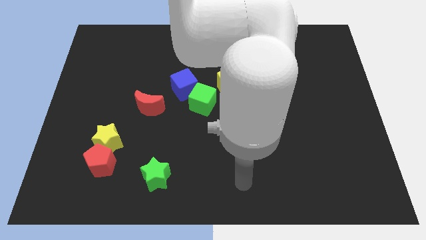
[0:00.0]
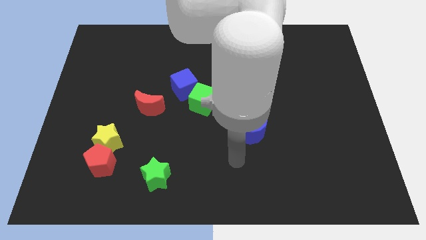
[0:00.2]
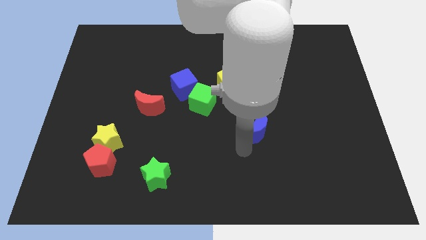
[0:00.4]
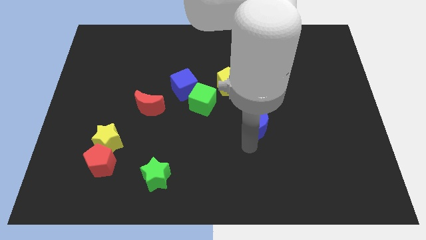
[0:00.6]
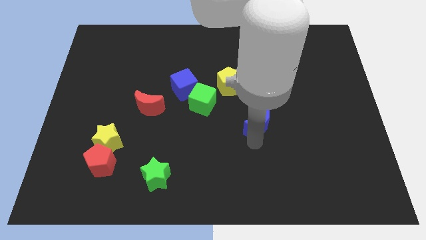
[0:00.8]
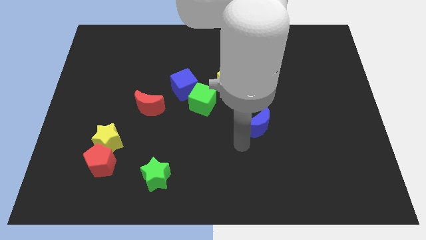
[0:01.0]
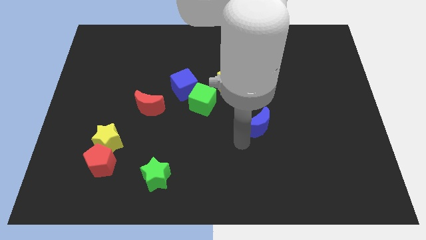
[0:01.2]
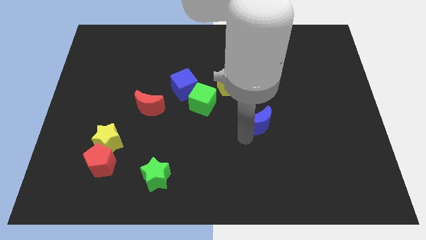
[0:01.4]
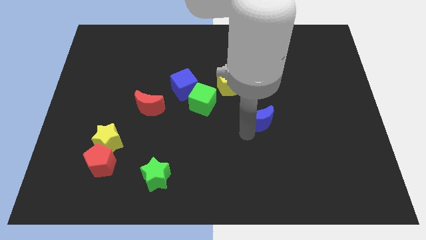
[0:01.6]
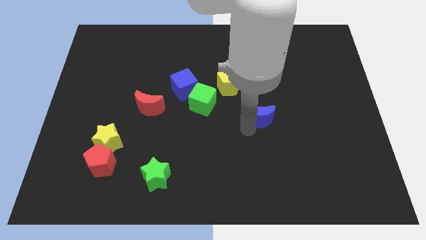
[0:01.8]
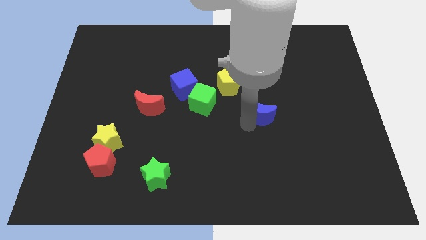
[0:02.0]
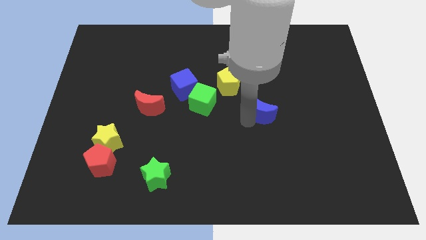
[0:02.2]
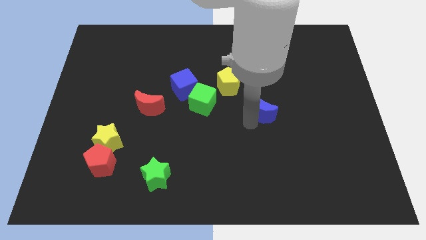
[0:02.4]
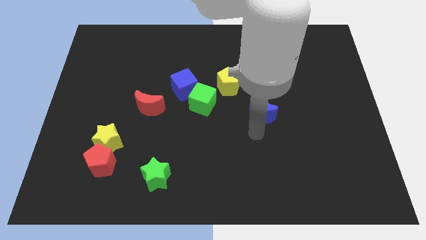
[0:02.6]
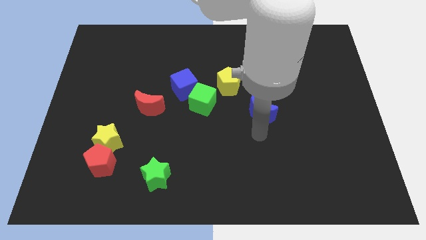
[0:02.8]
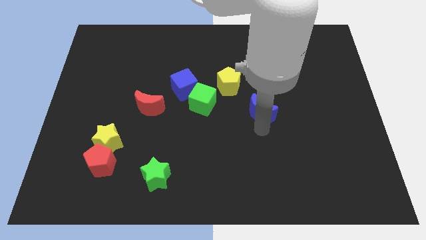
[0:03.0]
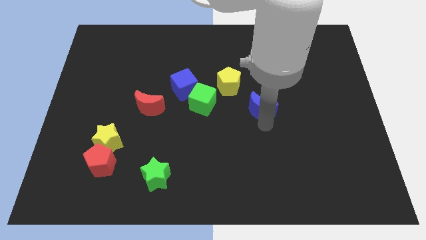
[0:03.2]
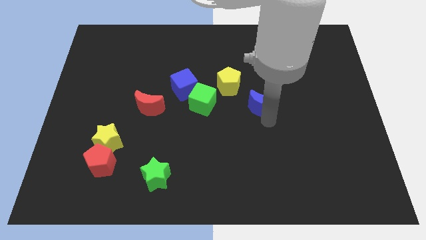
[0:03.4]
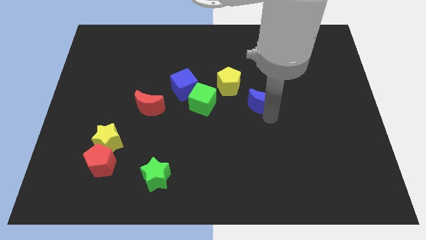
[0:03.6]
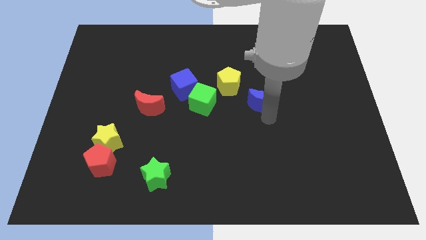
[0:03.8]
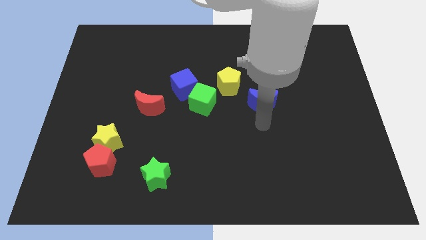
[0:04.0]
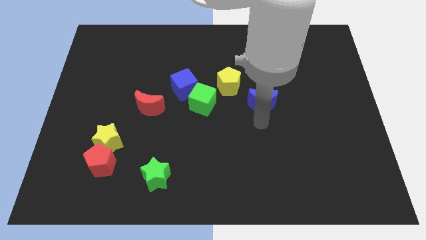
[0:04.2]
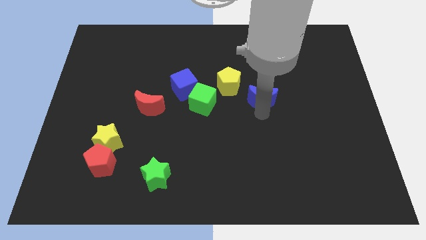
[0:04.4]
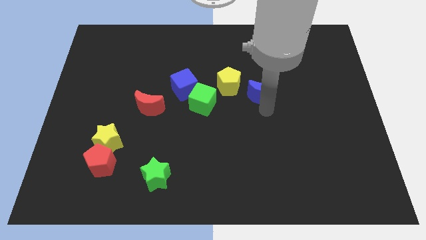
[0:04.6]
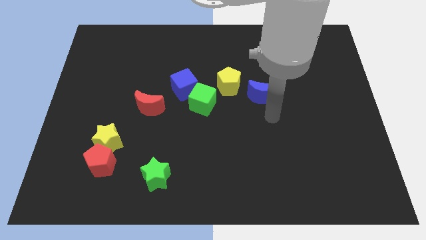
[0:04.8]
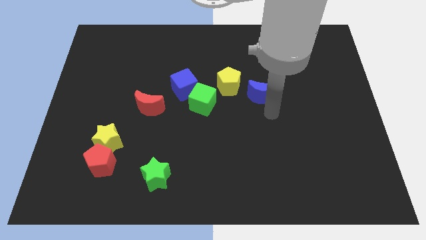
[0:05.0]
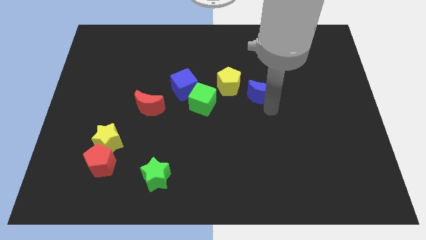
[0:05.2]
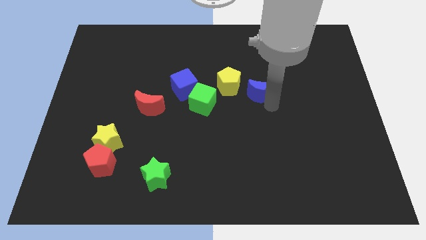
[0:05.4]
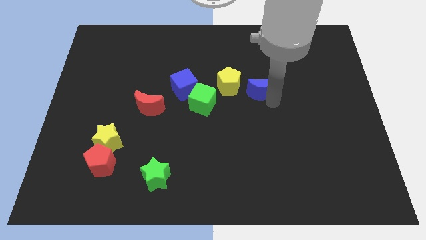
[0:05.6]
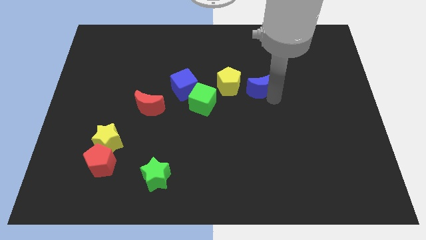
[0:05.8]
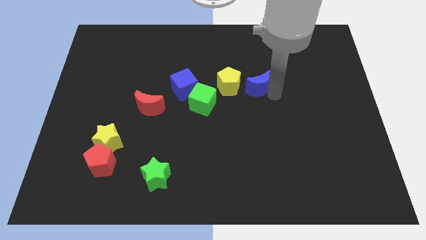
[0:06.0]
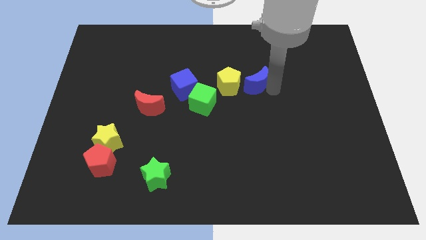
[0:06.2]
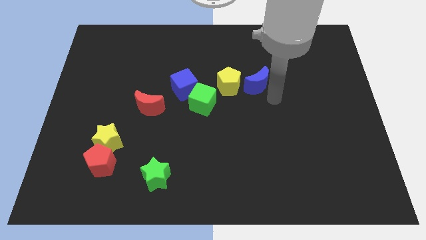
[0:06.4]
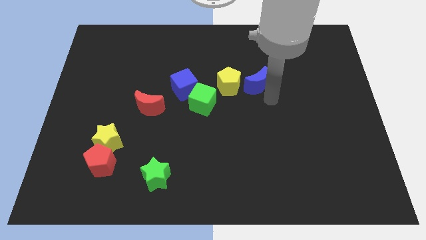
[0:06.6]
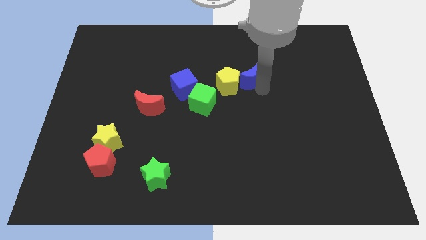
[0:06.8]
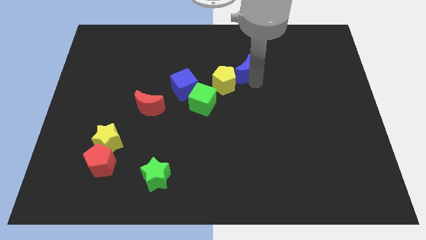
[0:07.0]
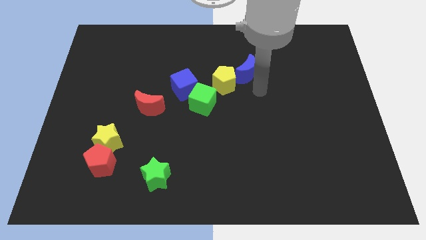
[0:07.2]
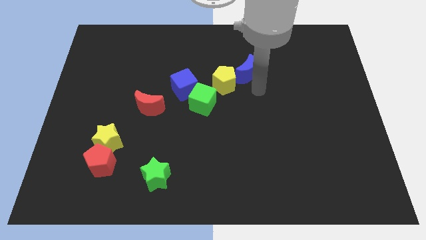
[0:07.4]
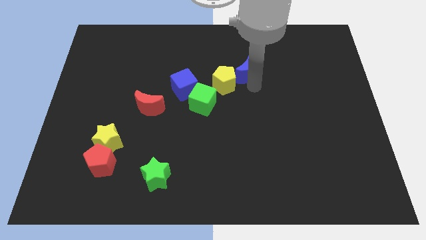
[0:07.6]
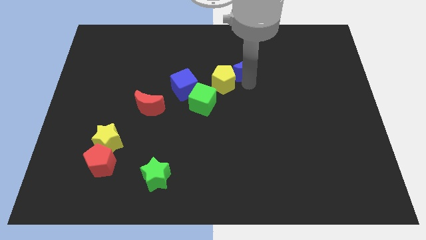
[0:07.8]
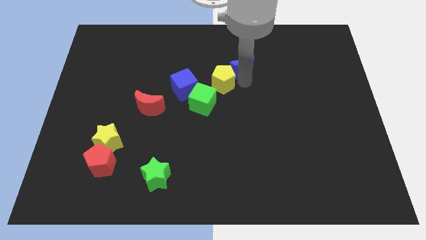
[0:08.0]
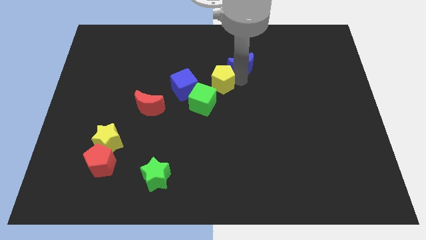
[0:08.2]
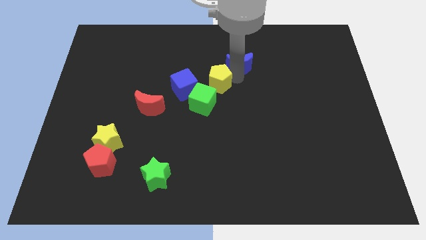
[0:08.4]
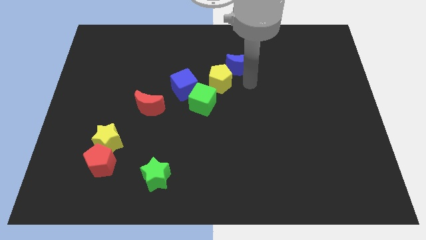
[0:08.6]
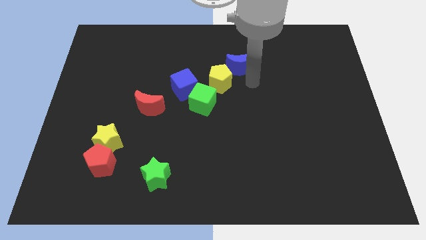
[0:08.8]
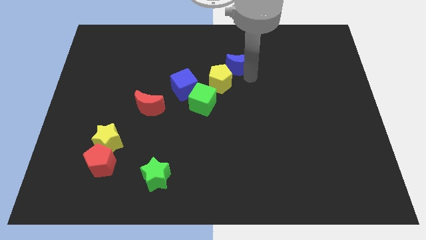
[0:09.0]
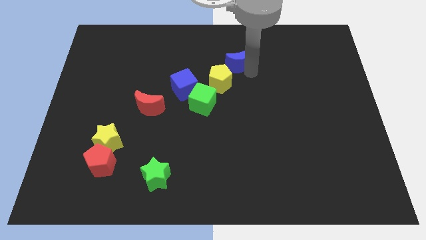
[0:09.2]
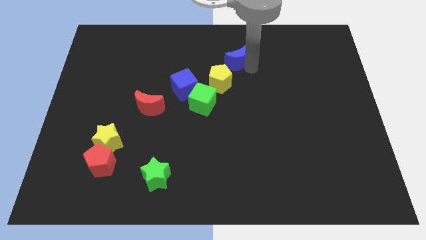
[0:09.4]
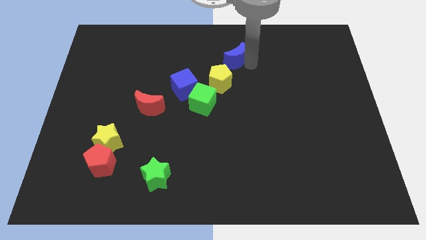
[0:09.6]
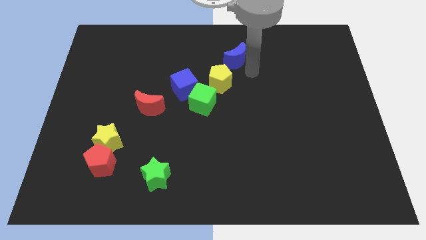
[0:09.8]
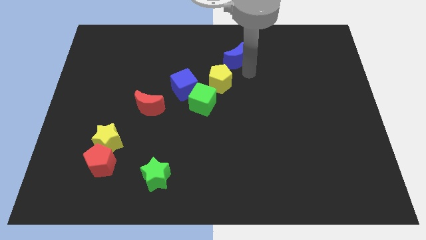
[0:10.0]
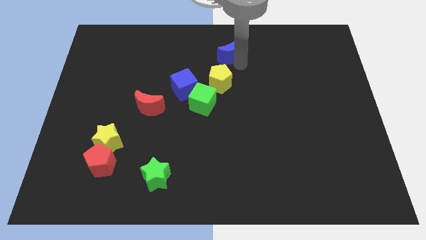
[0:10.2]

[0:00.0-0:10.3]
push the blue moon to the top

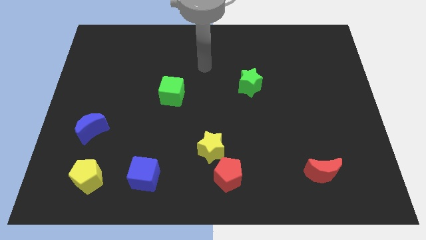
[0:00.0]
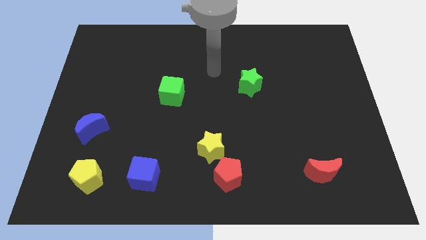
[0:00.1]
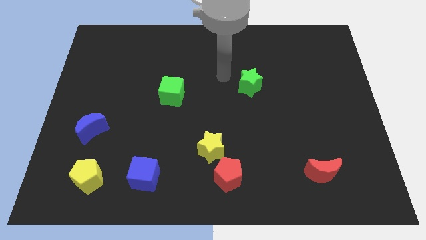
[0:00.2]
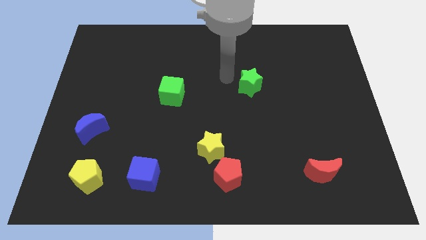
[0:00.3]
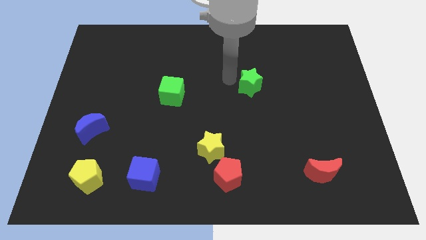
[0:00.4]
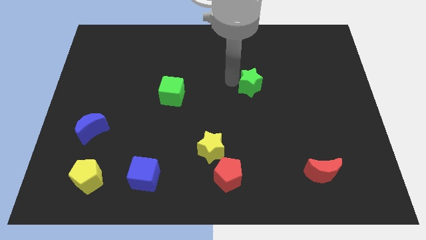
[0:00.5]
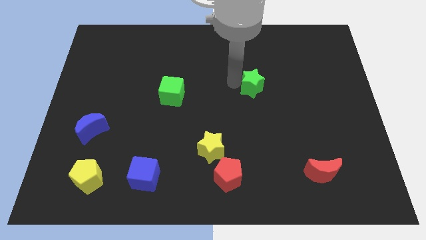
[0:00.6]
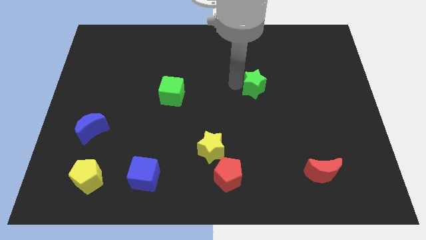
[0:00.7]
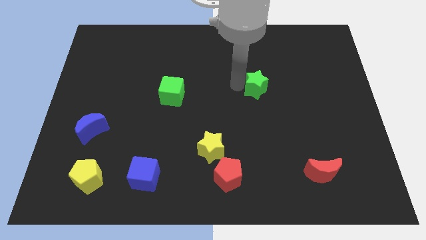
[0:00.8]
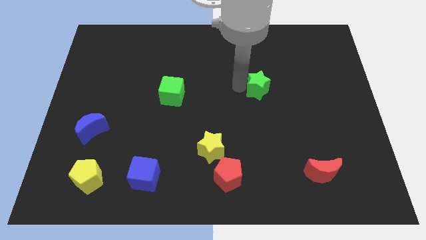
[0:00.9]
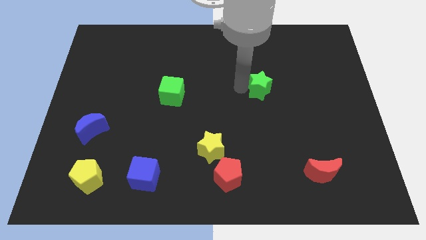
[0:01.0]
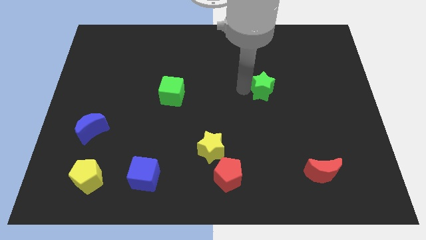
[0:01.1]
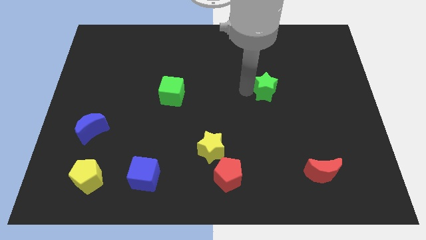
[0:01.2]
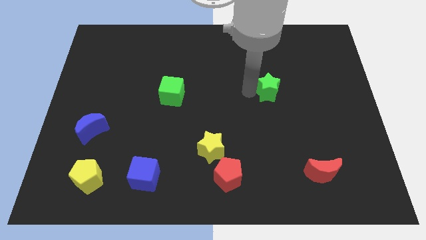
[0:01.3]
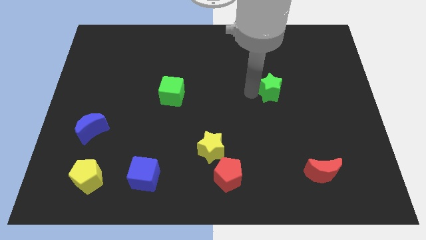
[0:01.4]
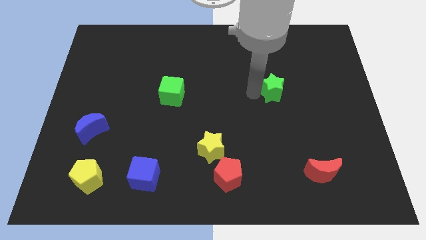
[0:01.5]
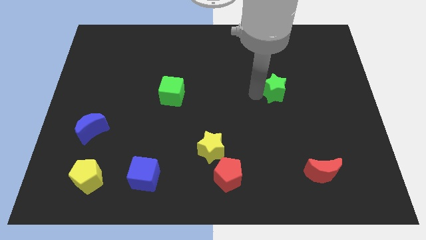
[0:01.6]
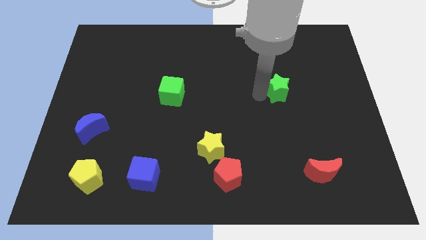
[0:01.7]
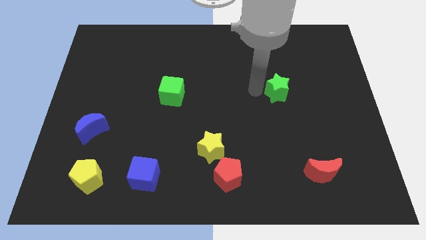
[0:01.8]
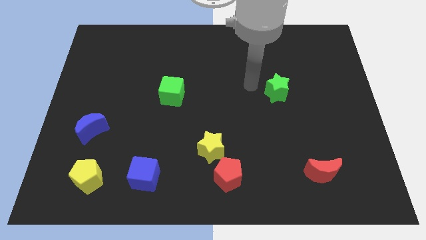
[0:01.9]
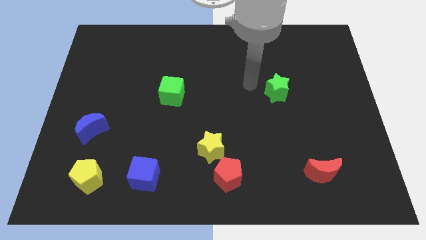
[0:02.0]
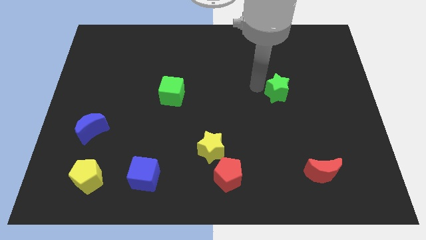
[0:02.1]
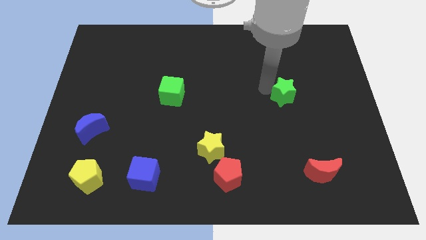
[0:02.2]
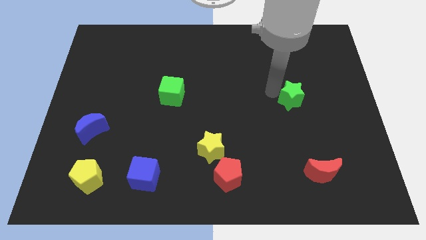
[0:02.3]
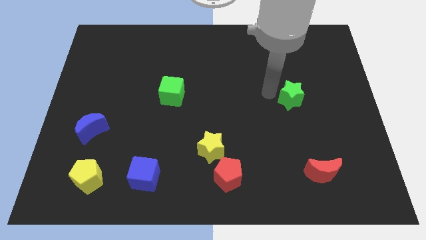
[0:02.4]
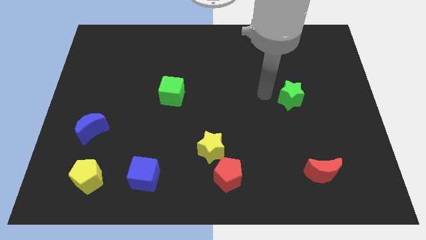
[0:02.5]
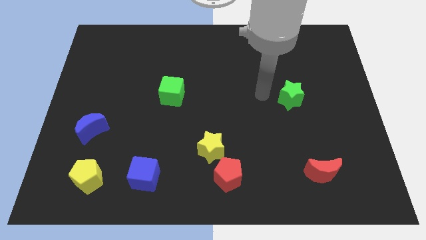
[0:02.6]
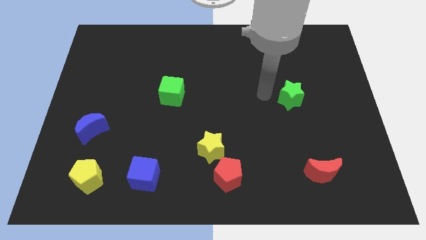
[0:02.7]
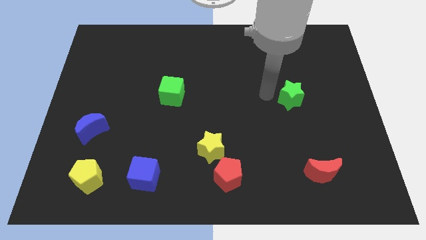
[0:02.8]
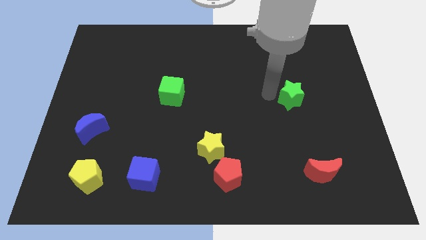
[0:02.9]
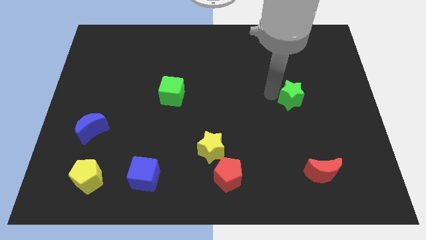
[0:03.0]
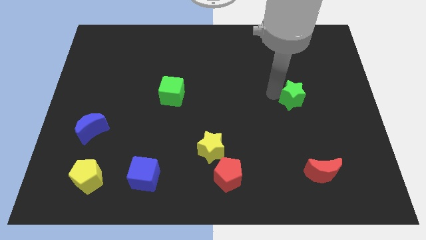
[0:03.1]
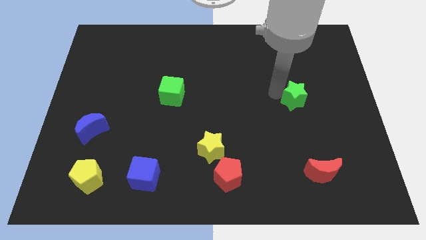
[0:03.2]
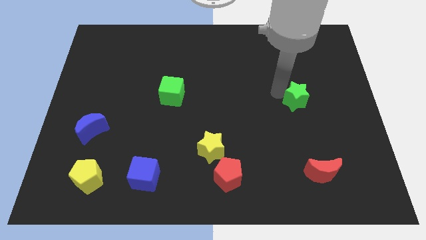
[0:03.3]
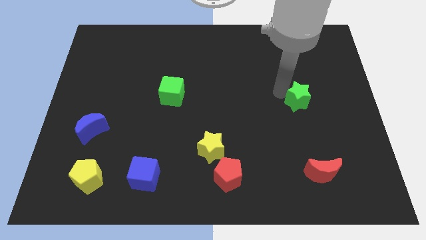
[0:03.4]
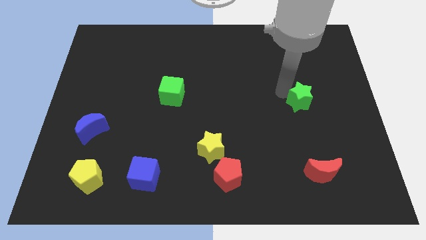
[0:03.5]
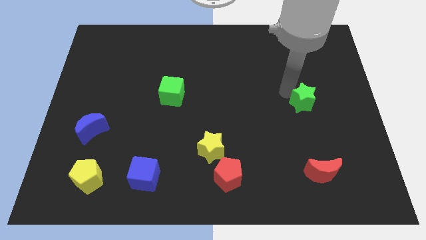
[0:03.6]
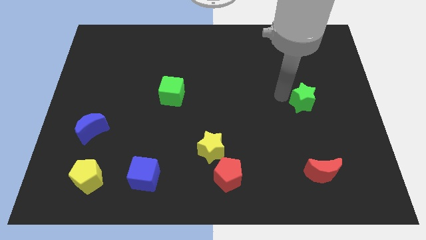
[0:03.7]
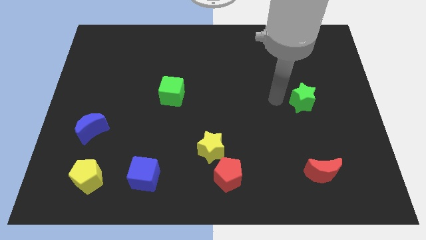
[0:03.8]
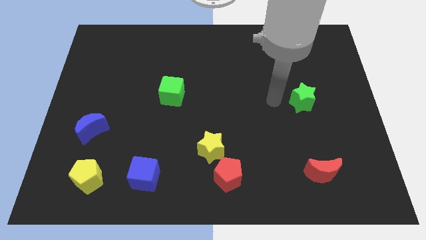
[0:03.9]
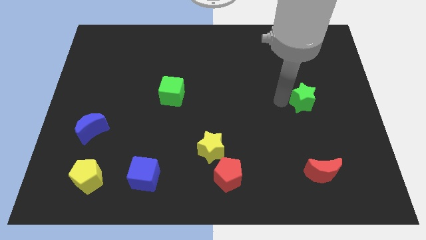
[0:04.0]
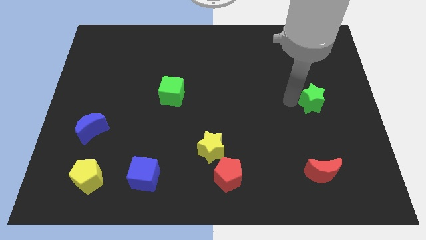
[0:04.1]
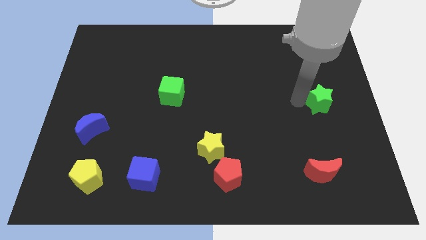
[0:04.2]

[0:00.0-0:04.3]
slide the green star to the right side of the board
